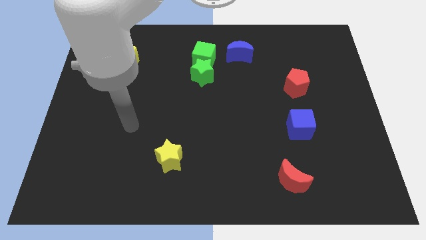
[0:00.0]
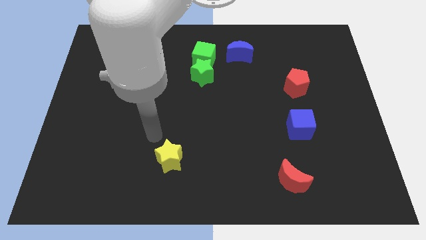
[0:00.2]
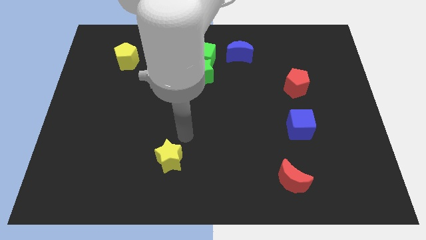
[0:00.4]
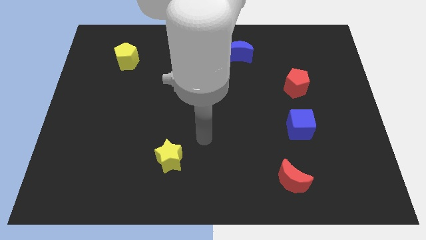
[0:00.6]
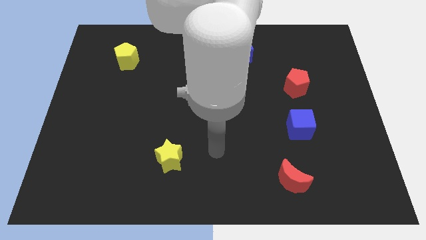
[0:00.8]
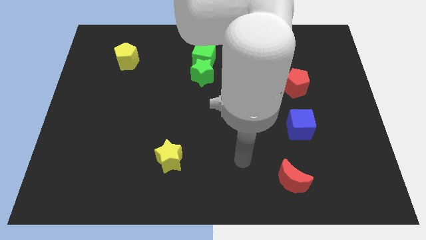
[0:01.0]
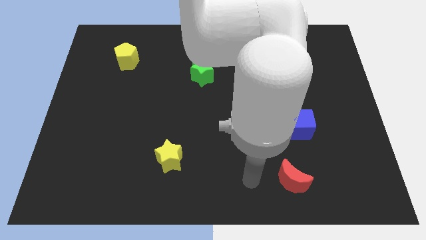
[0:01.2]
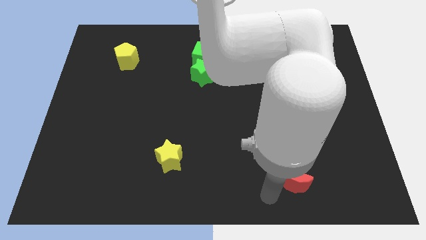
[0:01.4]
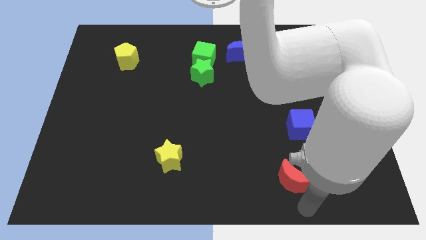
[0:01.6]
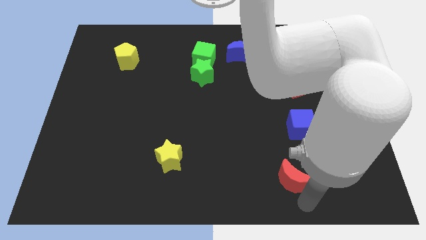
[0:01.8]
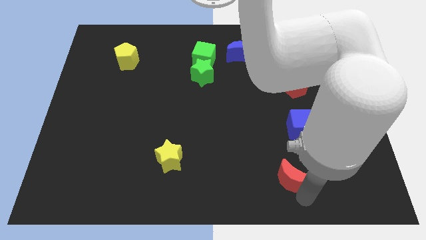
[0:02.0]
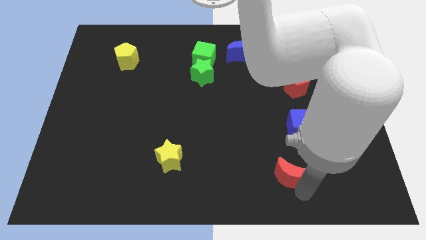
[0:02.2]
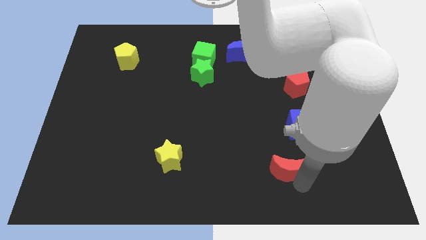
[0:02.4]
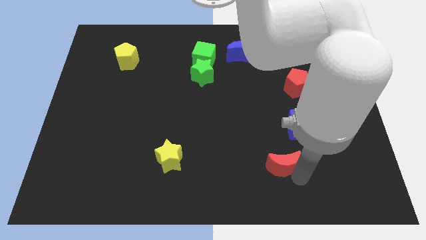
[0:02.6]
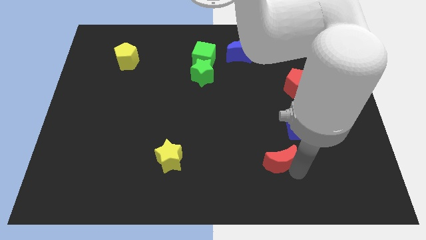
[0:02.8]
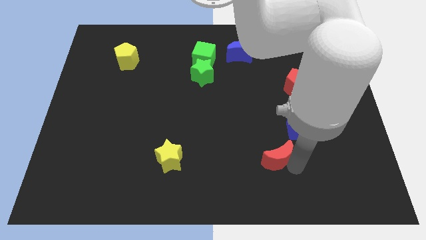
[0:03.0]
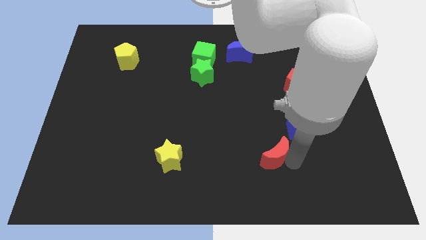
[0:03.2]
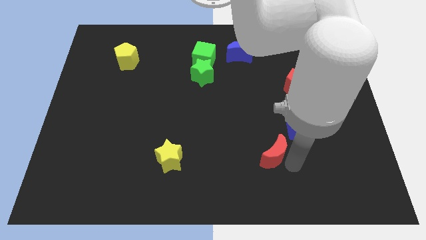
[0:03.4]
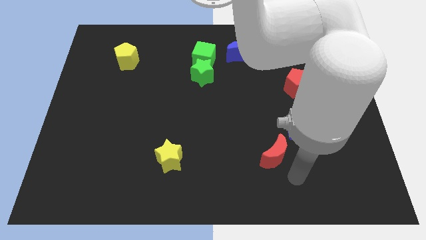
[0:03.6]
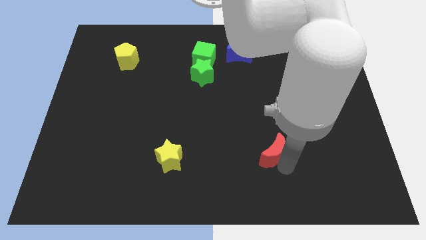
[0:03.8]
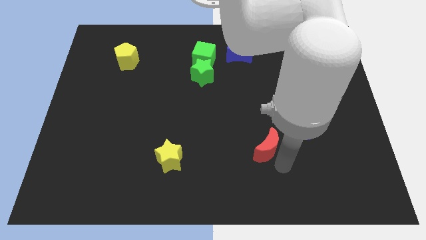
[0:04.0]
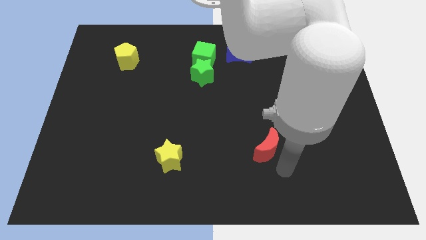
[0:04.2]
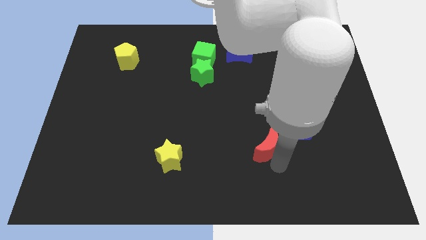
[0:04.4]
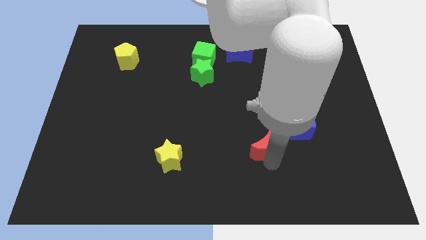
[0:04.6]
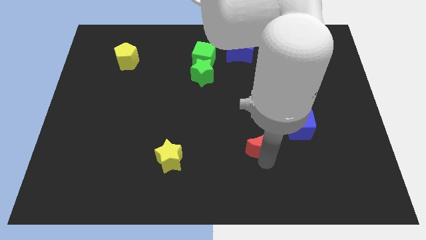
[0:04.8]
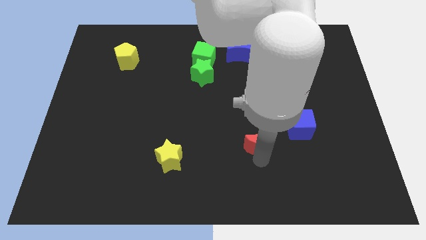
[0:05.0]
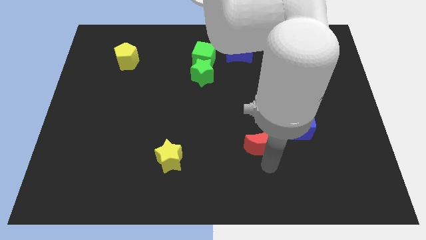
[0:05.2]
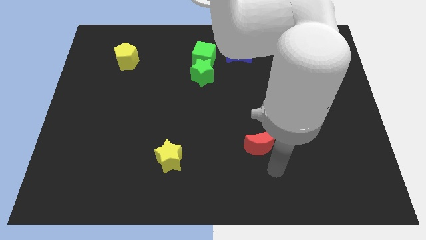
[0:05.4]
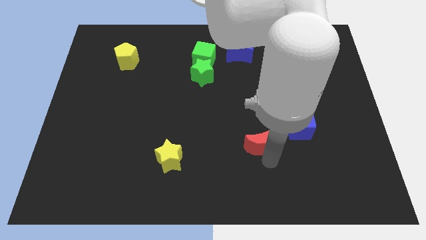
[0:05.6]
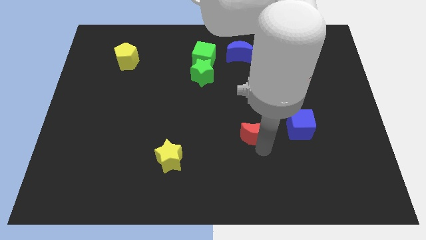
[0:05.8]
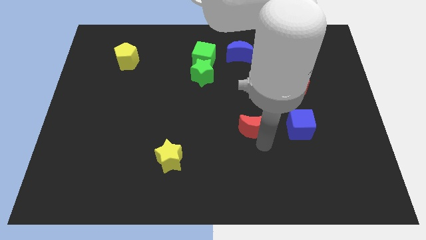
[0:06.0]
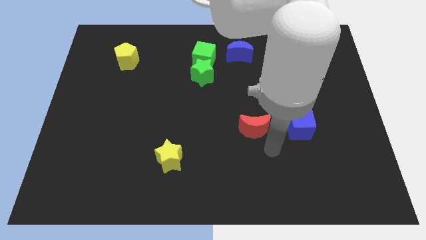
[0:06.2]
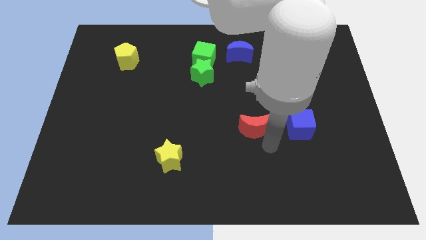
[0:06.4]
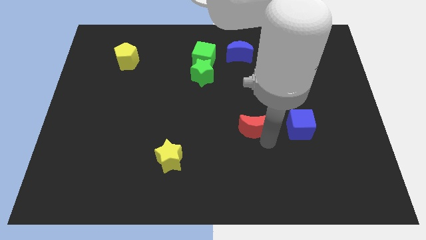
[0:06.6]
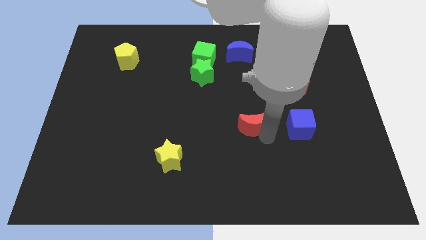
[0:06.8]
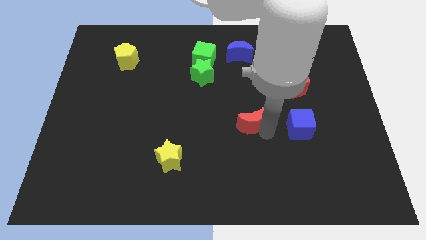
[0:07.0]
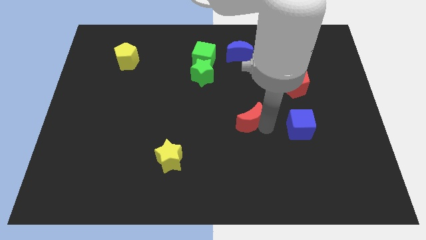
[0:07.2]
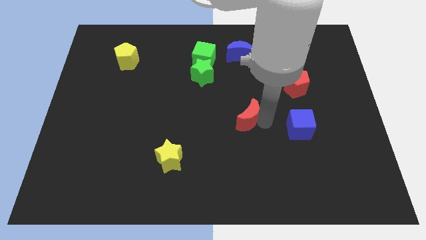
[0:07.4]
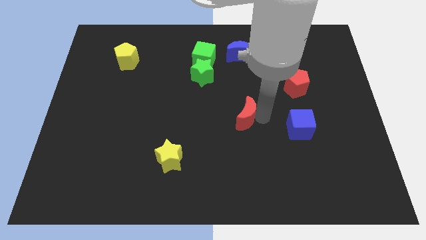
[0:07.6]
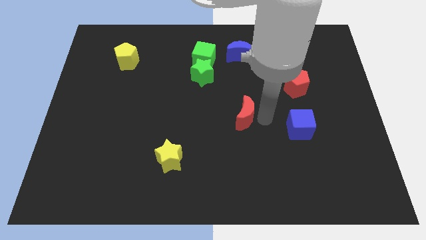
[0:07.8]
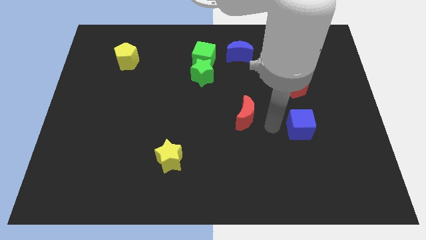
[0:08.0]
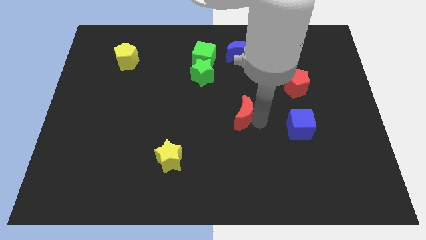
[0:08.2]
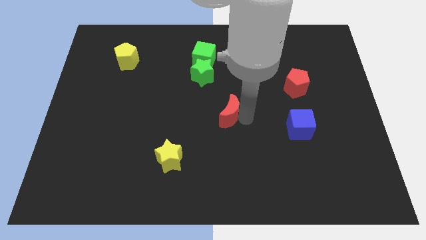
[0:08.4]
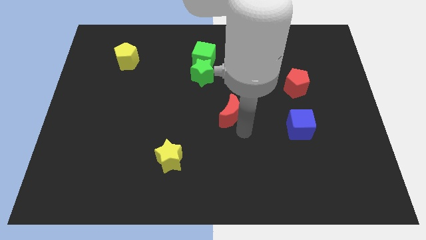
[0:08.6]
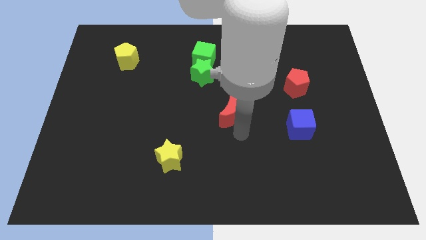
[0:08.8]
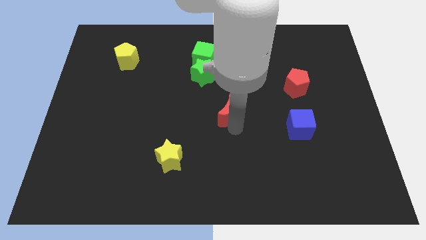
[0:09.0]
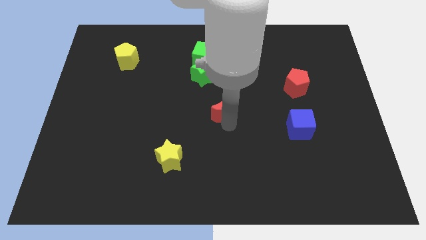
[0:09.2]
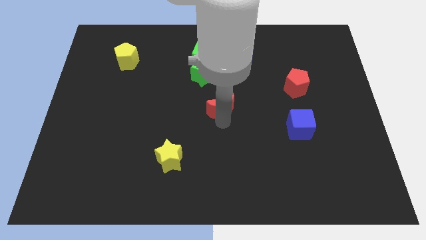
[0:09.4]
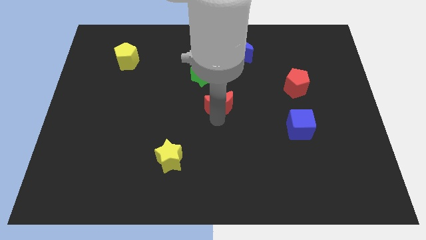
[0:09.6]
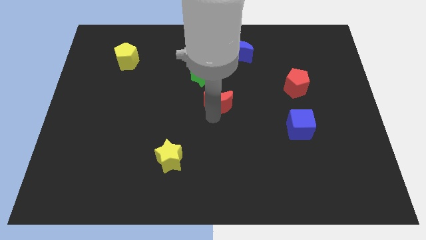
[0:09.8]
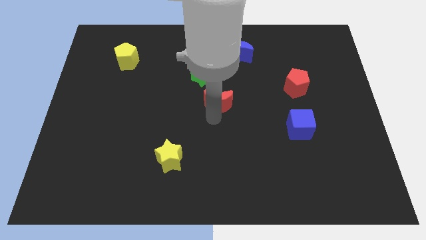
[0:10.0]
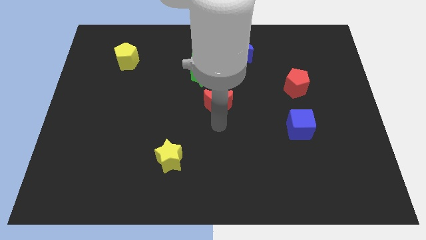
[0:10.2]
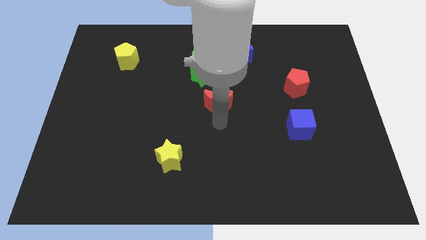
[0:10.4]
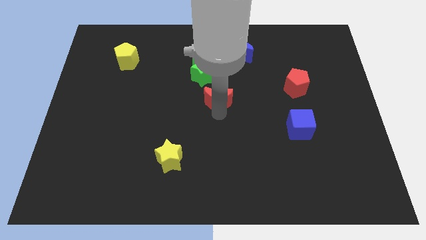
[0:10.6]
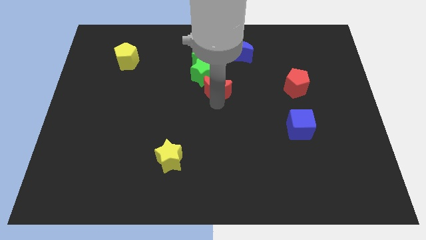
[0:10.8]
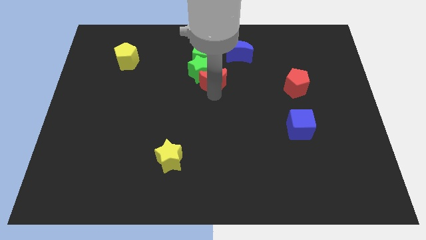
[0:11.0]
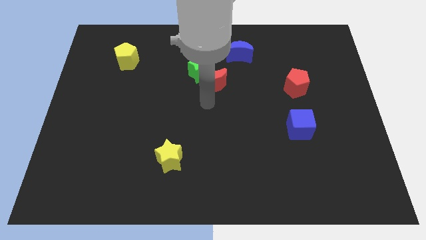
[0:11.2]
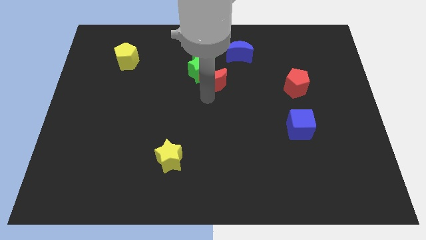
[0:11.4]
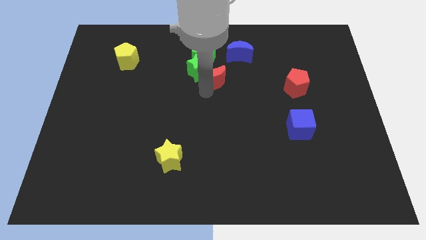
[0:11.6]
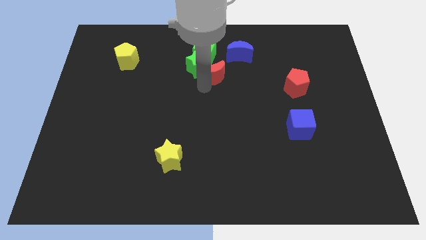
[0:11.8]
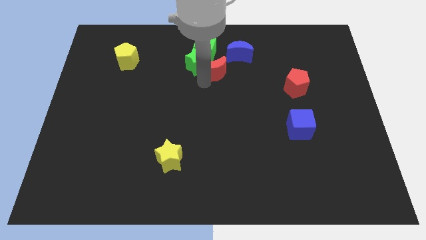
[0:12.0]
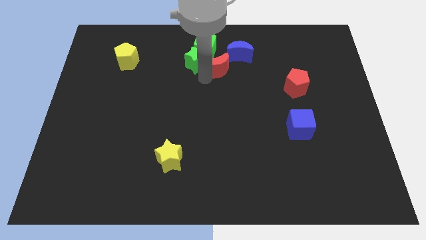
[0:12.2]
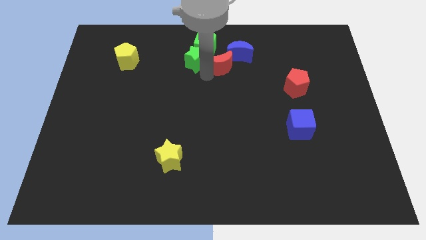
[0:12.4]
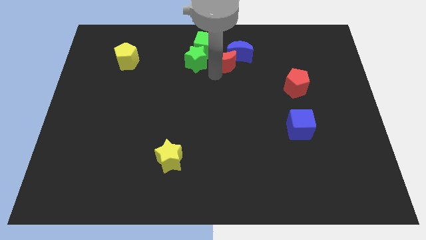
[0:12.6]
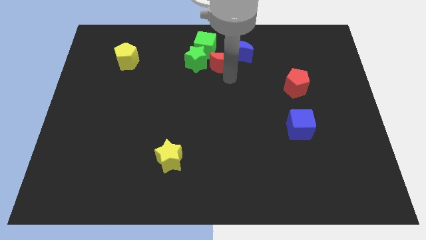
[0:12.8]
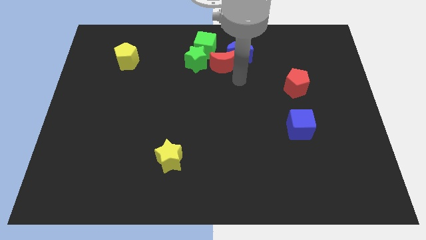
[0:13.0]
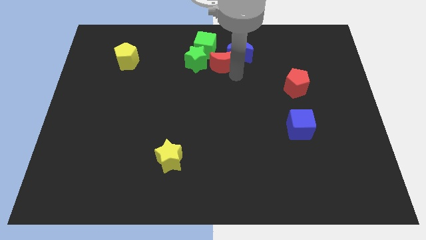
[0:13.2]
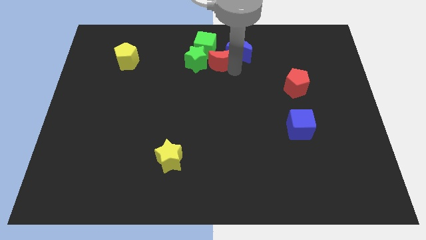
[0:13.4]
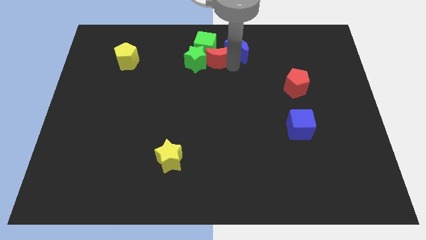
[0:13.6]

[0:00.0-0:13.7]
slide the red moon next to the green cube

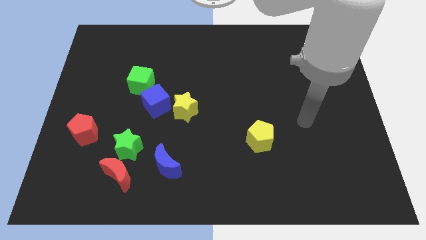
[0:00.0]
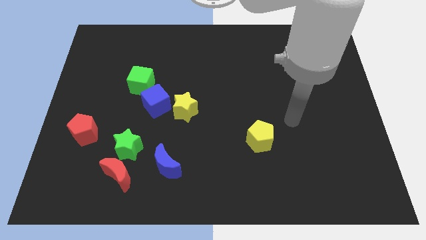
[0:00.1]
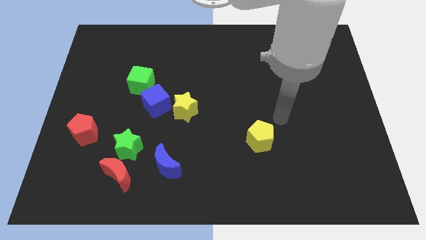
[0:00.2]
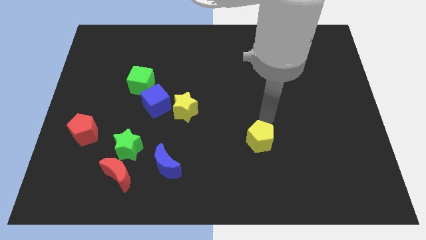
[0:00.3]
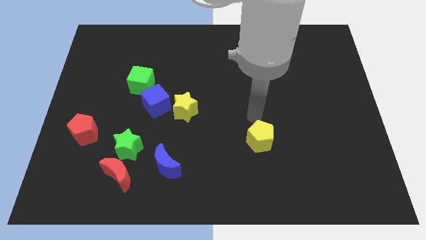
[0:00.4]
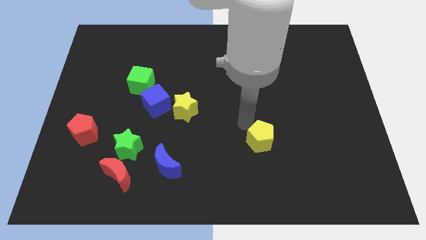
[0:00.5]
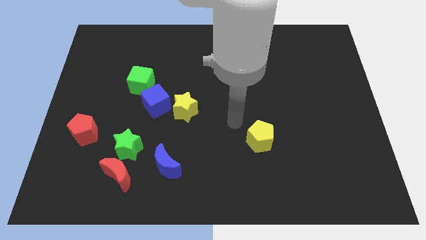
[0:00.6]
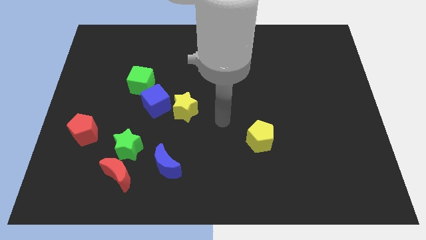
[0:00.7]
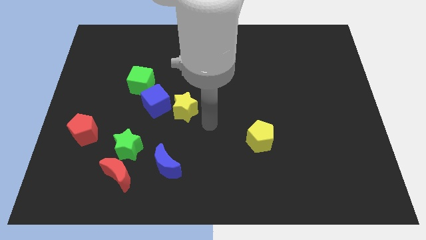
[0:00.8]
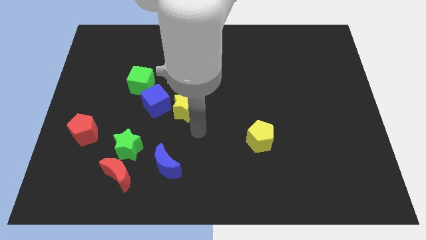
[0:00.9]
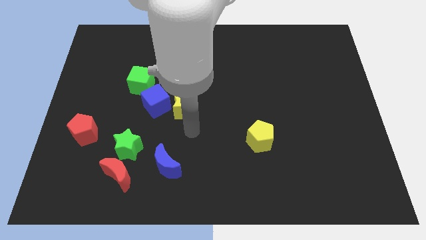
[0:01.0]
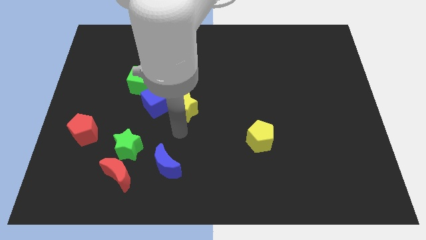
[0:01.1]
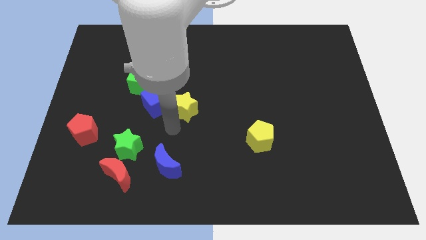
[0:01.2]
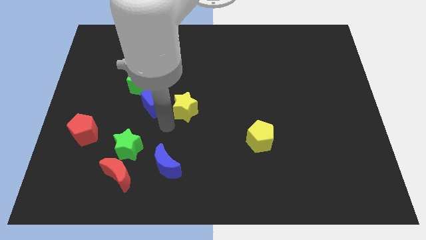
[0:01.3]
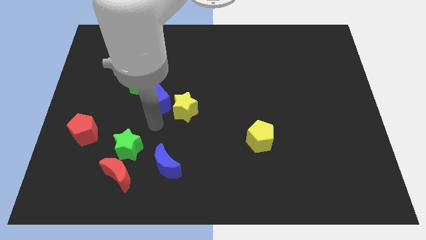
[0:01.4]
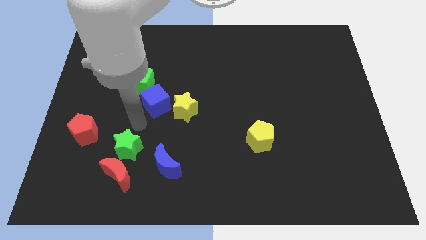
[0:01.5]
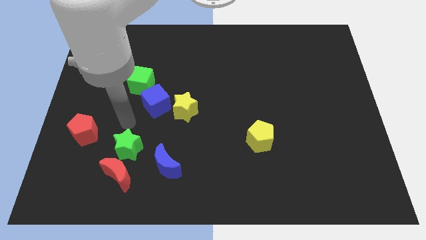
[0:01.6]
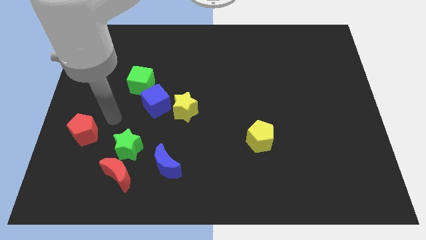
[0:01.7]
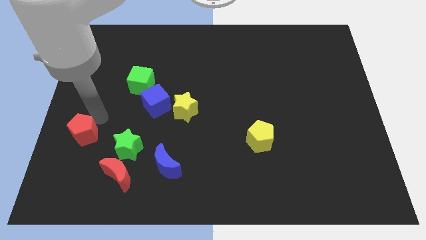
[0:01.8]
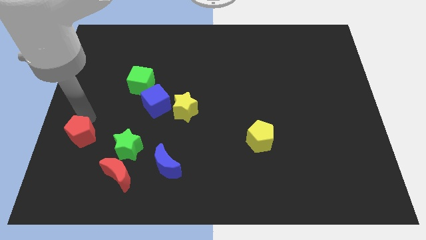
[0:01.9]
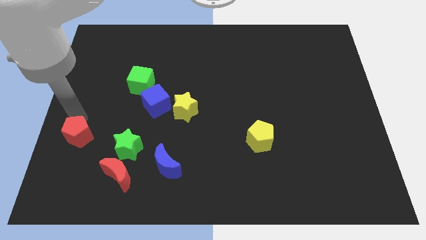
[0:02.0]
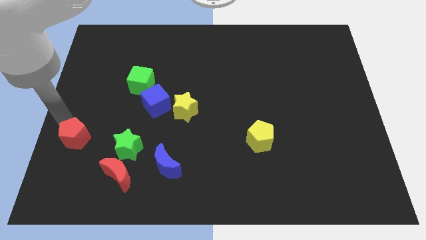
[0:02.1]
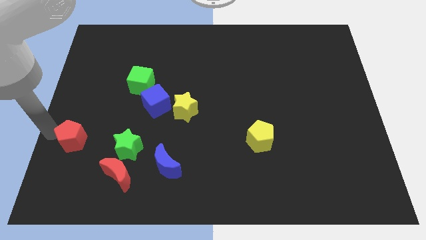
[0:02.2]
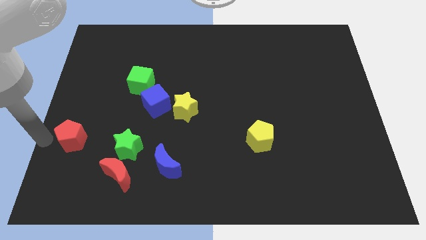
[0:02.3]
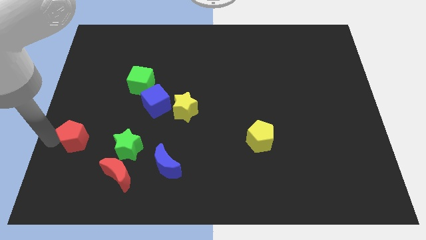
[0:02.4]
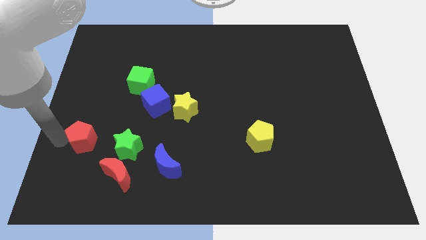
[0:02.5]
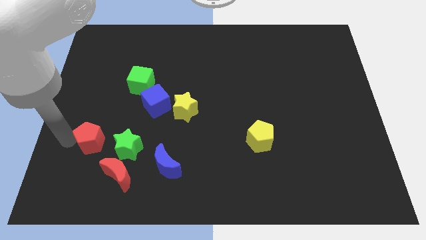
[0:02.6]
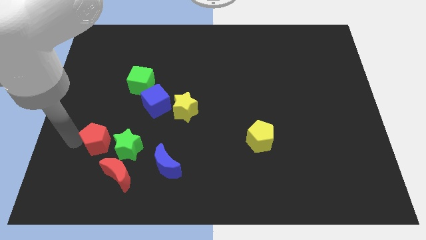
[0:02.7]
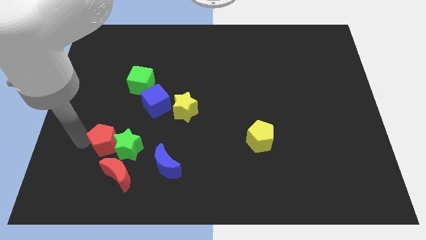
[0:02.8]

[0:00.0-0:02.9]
push the red pentagon next to the green star
